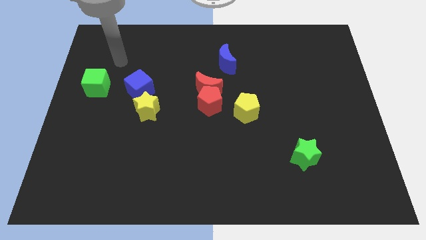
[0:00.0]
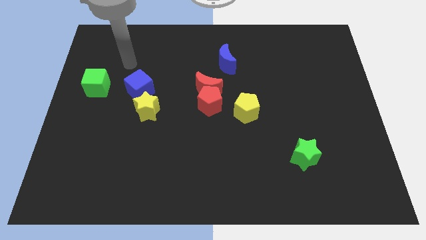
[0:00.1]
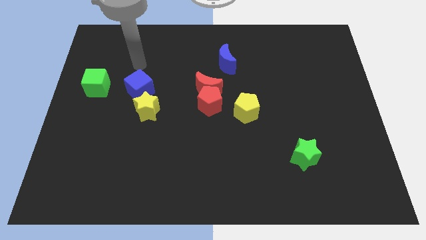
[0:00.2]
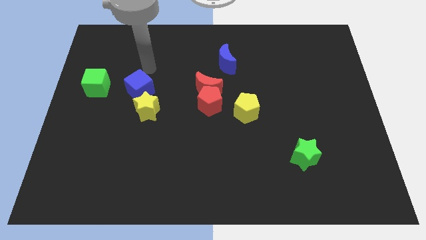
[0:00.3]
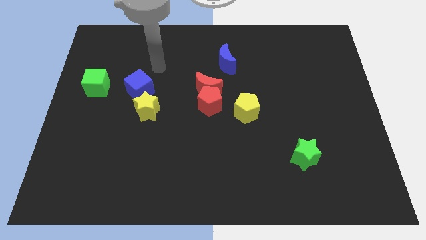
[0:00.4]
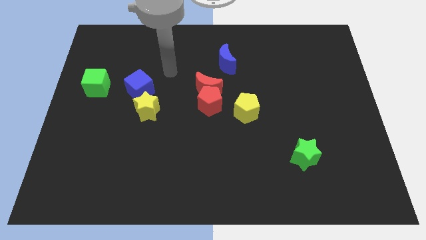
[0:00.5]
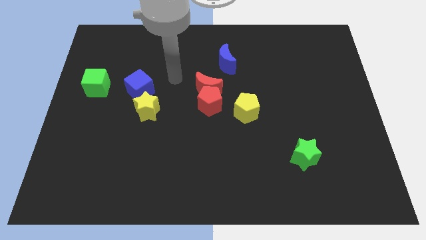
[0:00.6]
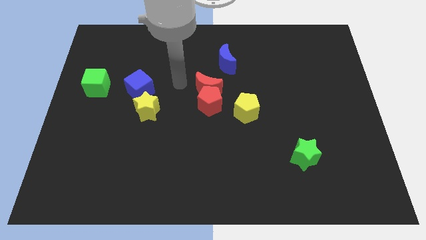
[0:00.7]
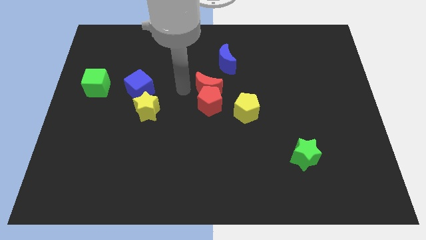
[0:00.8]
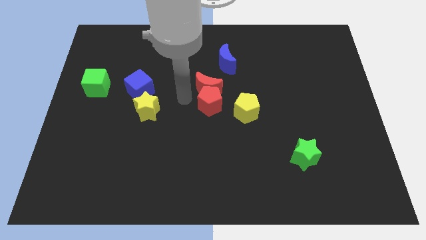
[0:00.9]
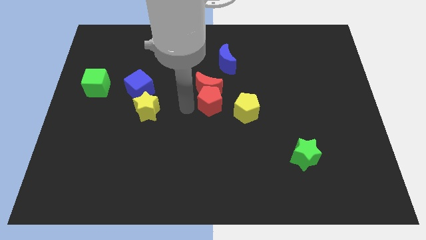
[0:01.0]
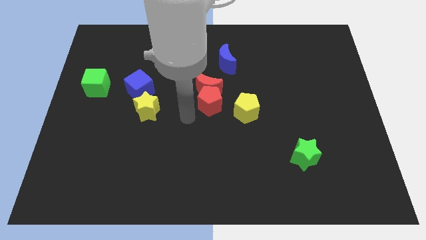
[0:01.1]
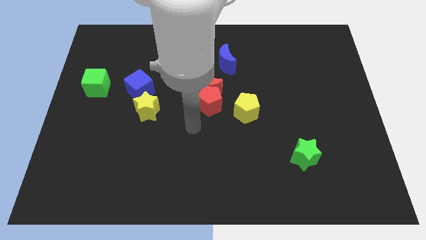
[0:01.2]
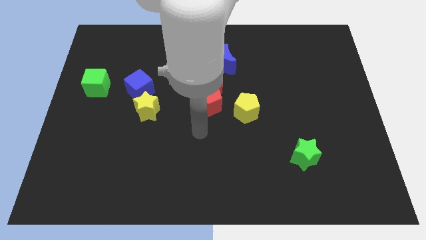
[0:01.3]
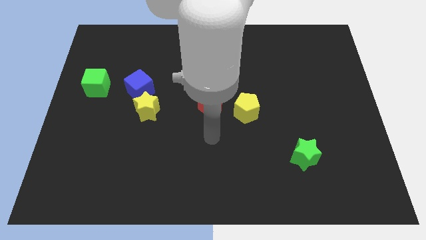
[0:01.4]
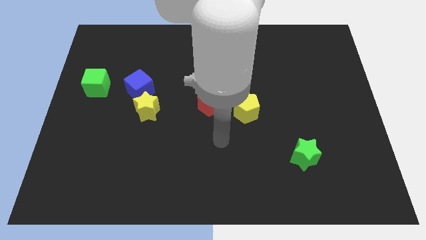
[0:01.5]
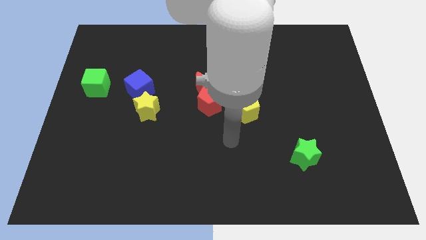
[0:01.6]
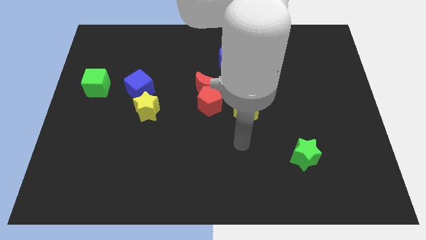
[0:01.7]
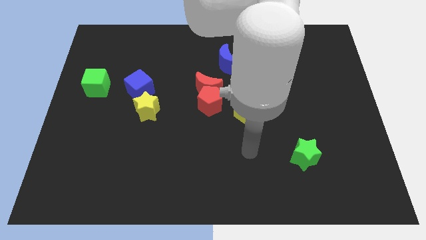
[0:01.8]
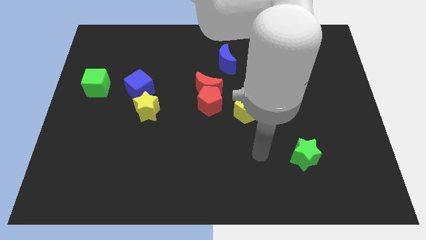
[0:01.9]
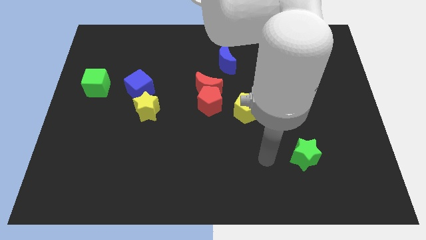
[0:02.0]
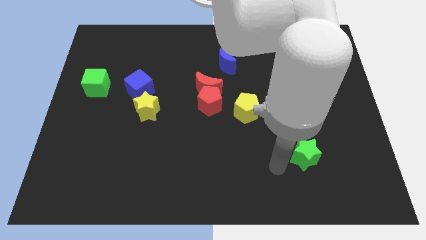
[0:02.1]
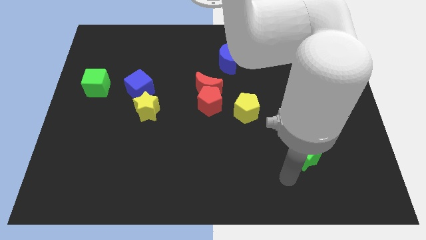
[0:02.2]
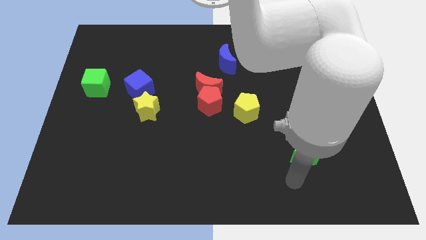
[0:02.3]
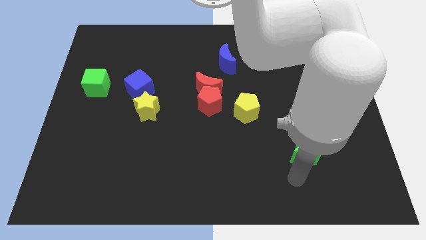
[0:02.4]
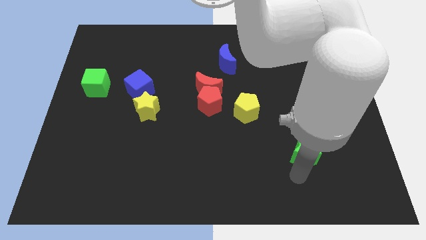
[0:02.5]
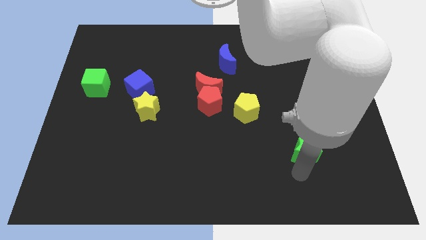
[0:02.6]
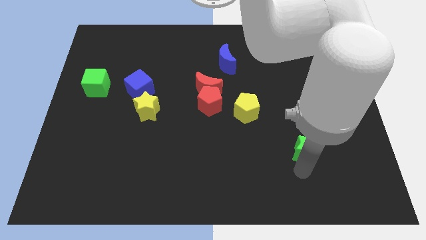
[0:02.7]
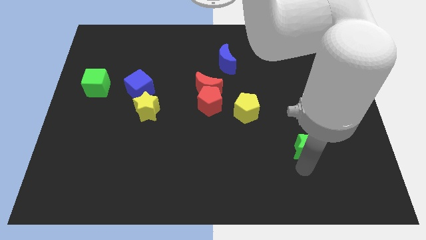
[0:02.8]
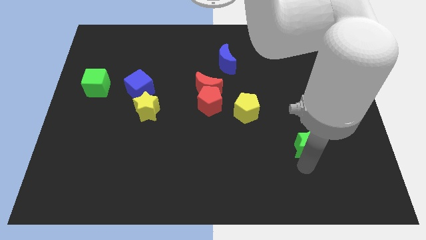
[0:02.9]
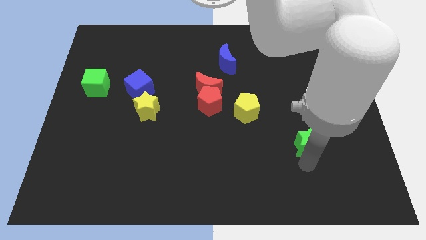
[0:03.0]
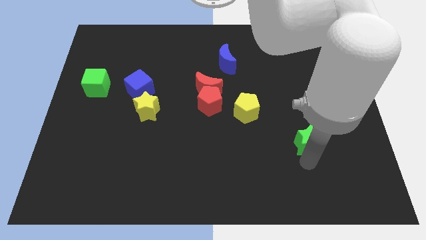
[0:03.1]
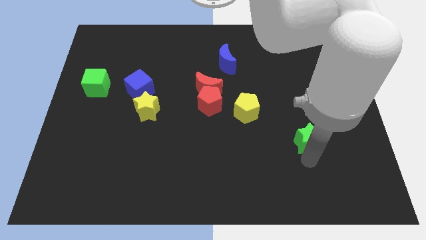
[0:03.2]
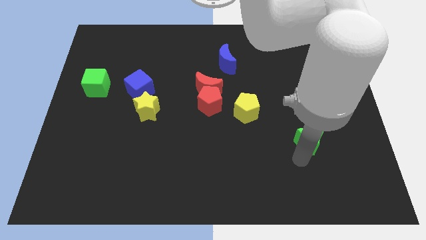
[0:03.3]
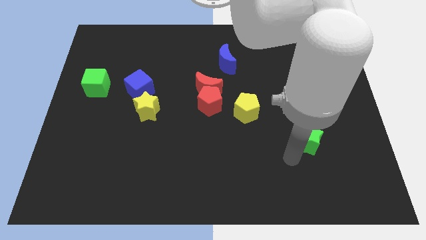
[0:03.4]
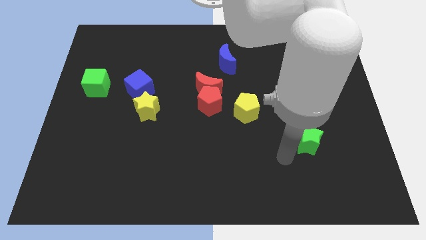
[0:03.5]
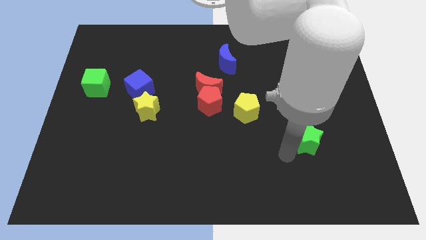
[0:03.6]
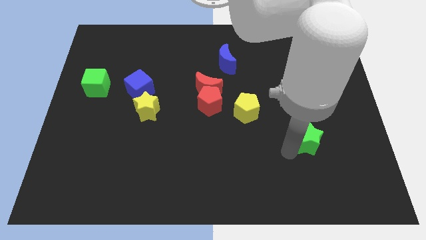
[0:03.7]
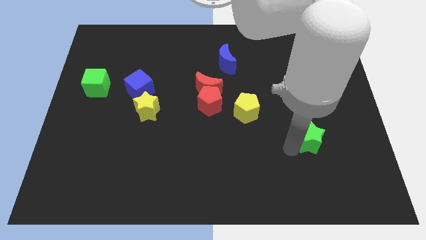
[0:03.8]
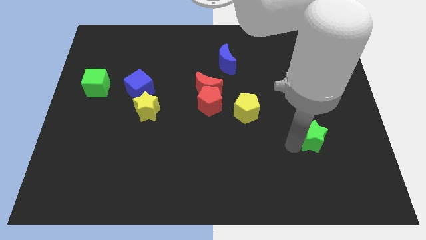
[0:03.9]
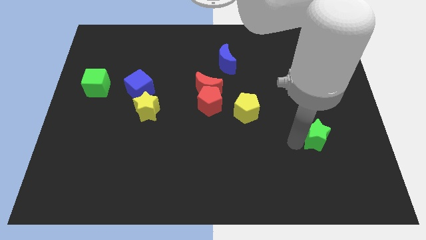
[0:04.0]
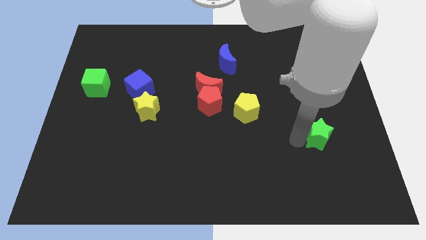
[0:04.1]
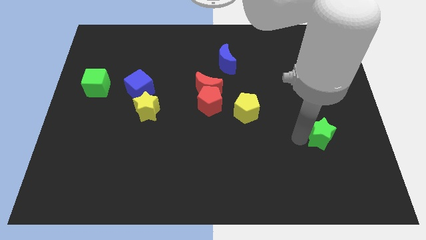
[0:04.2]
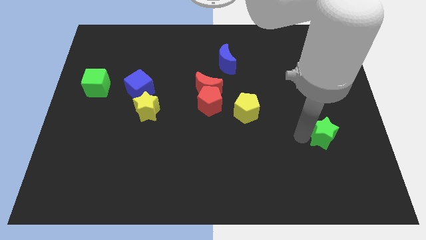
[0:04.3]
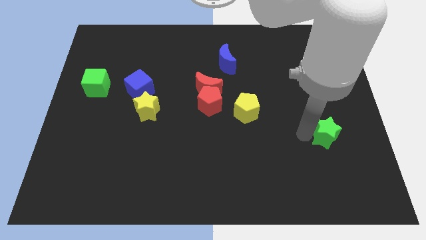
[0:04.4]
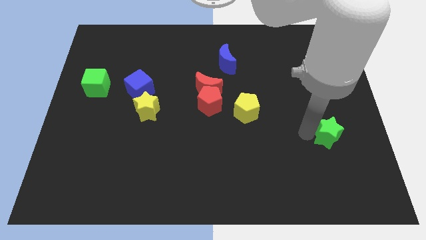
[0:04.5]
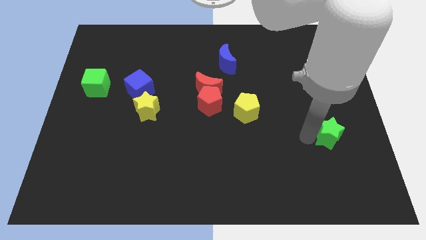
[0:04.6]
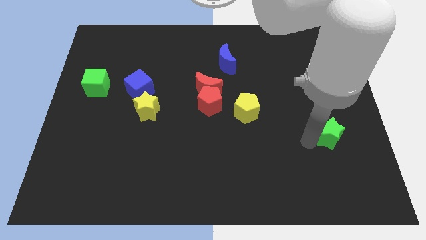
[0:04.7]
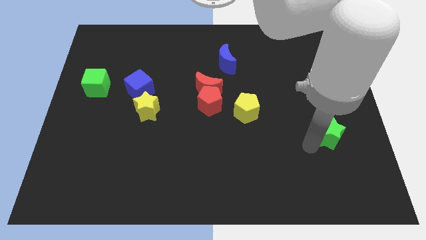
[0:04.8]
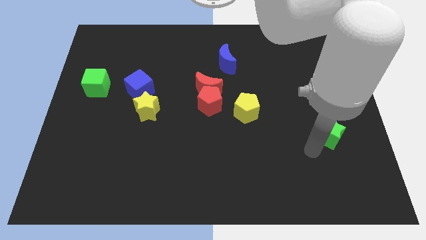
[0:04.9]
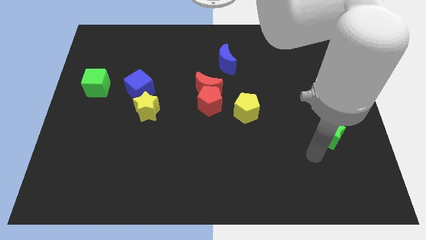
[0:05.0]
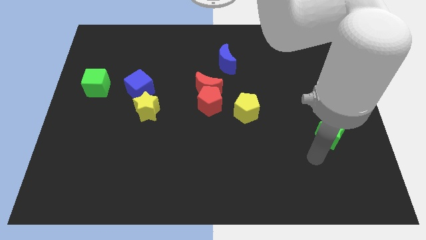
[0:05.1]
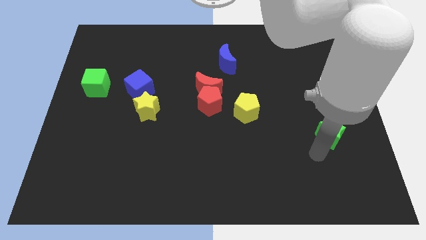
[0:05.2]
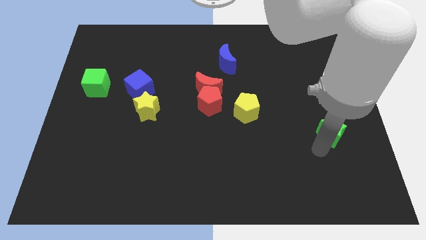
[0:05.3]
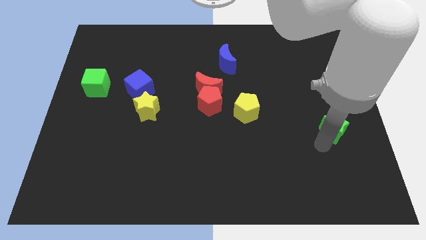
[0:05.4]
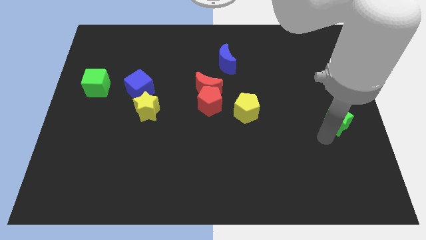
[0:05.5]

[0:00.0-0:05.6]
slide the green star to the center right
